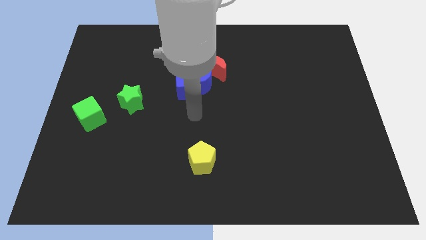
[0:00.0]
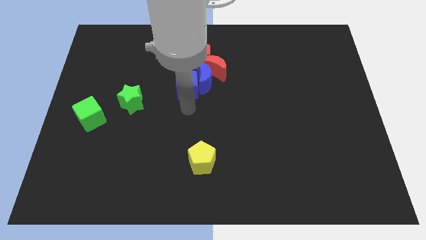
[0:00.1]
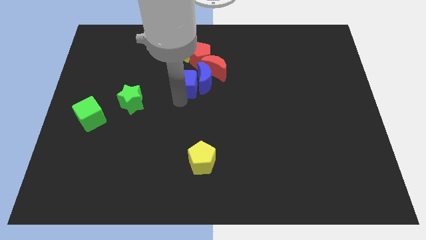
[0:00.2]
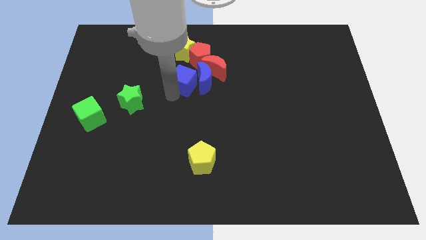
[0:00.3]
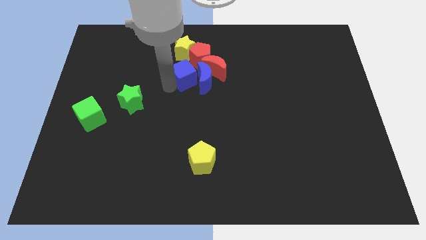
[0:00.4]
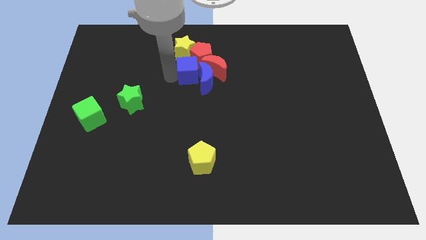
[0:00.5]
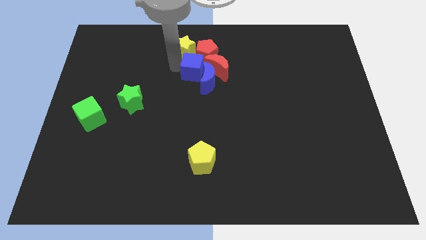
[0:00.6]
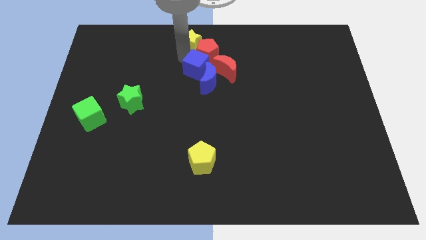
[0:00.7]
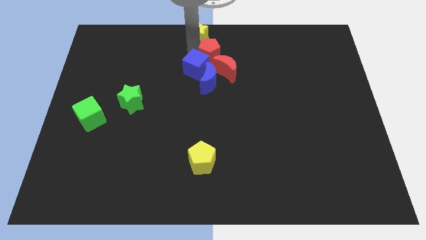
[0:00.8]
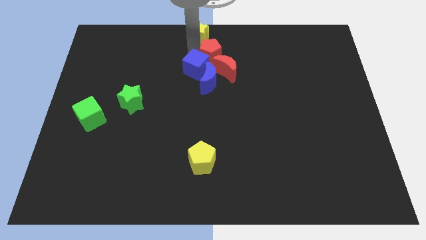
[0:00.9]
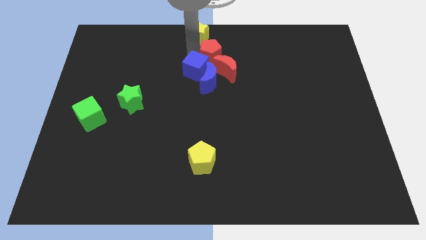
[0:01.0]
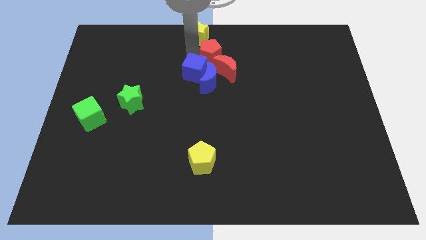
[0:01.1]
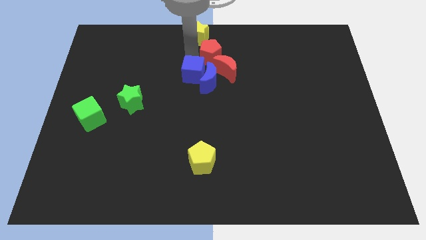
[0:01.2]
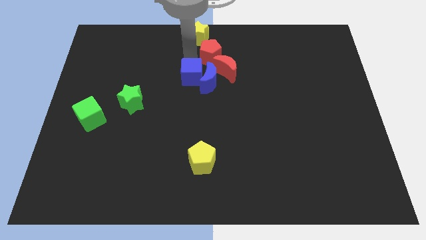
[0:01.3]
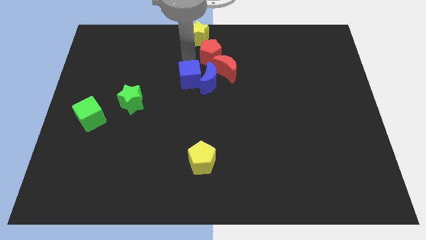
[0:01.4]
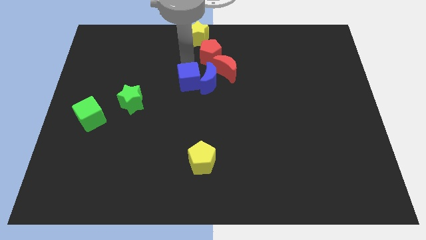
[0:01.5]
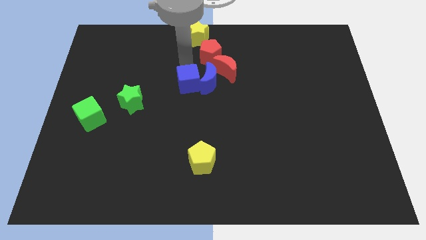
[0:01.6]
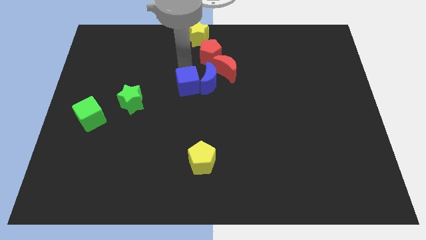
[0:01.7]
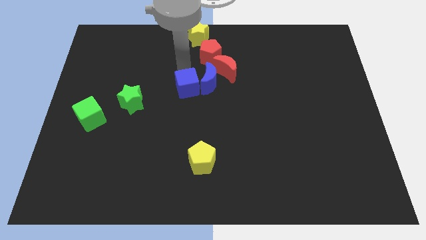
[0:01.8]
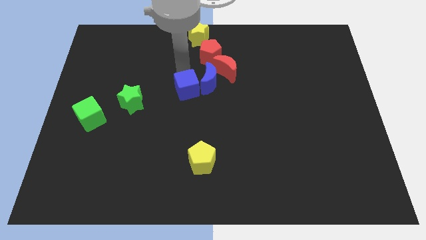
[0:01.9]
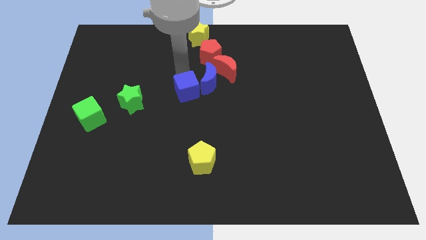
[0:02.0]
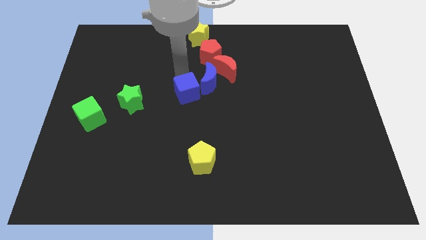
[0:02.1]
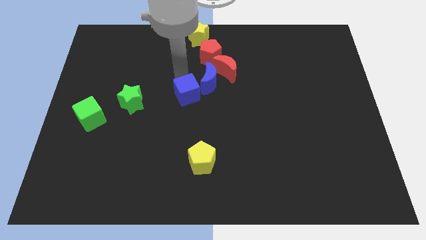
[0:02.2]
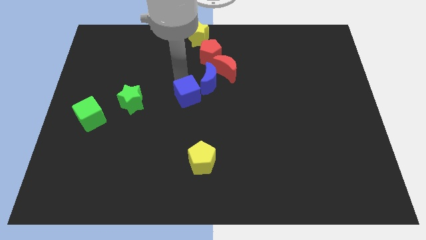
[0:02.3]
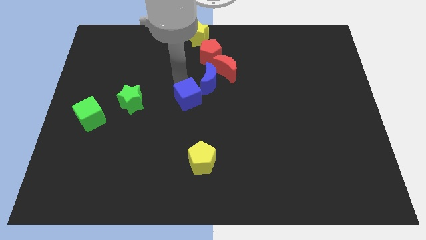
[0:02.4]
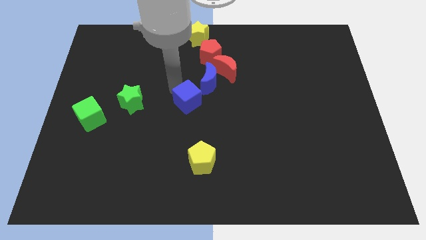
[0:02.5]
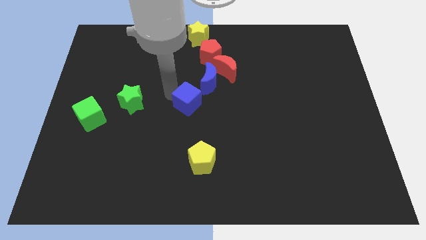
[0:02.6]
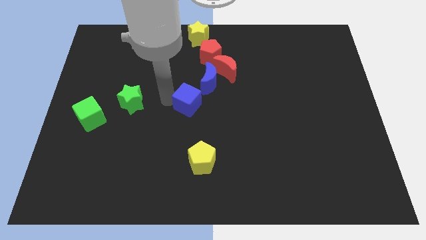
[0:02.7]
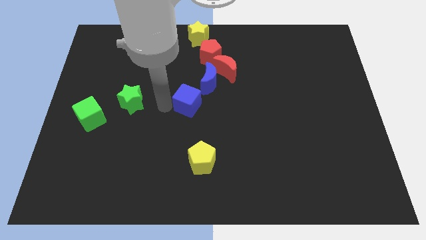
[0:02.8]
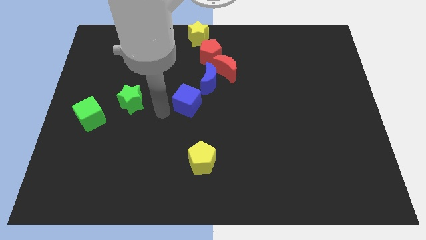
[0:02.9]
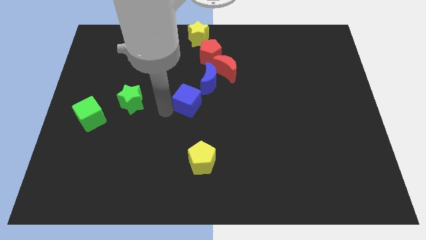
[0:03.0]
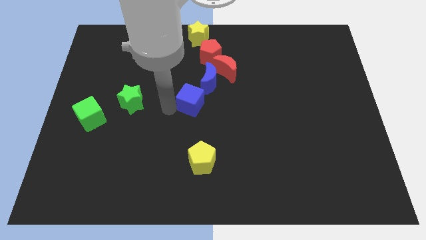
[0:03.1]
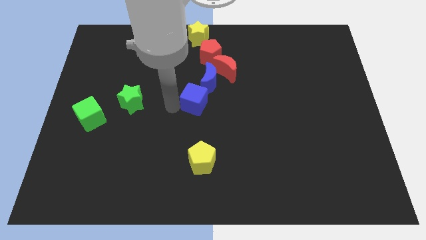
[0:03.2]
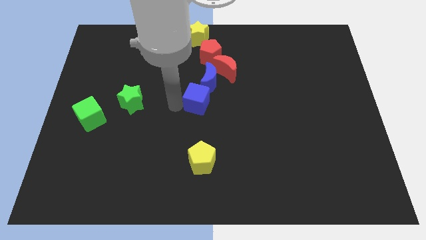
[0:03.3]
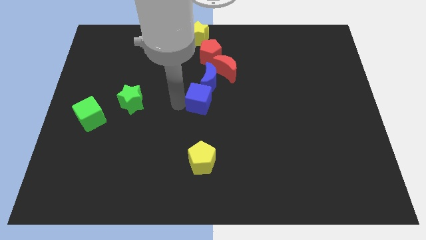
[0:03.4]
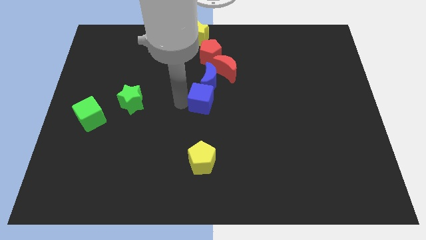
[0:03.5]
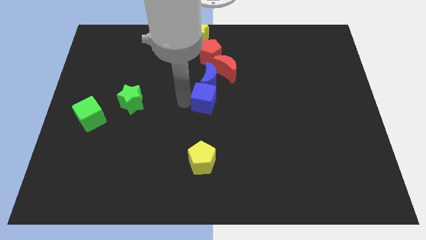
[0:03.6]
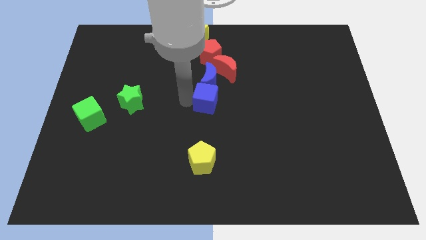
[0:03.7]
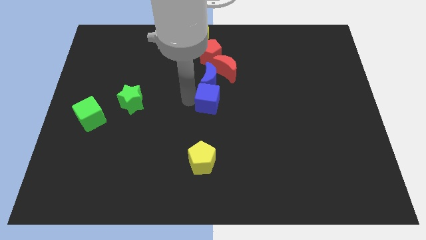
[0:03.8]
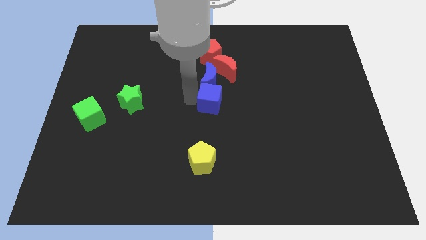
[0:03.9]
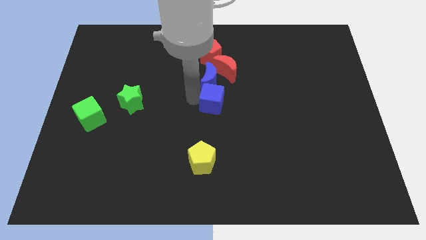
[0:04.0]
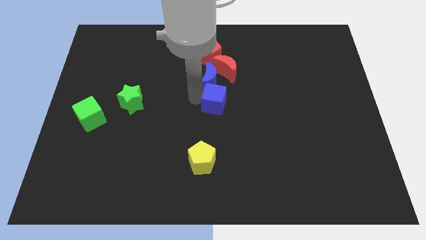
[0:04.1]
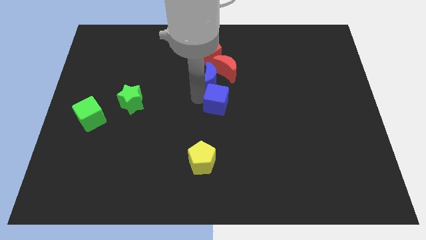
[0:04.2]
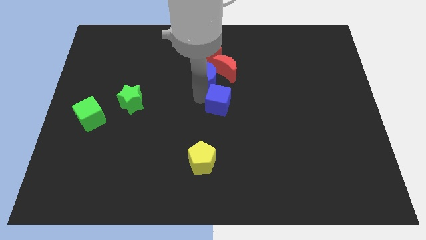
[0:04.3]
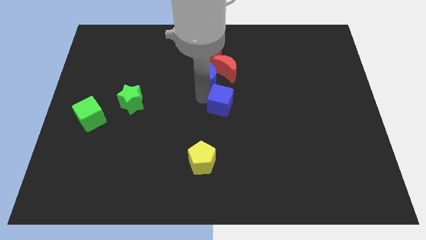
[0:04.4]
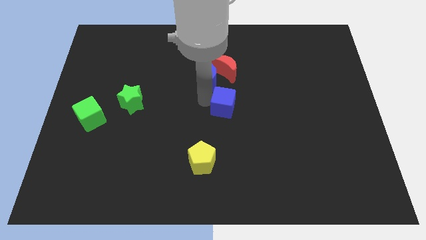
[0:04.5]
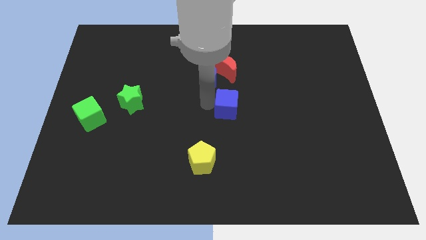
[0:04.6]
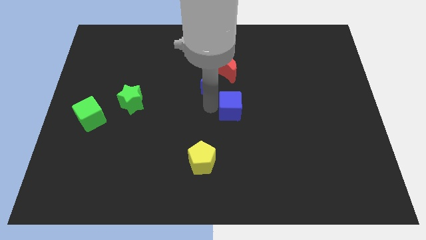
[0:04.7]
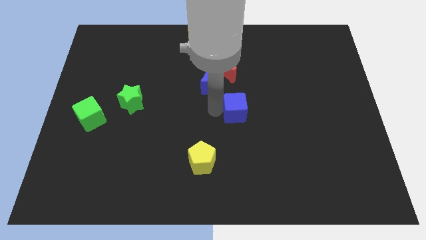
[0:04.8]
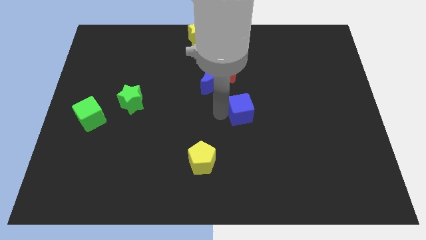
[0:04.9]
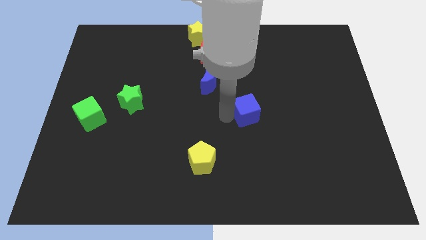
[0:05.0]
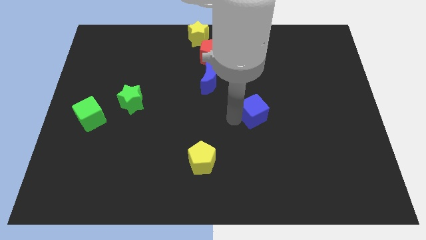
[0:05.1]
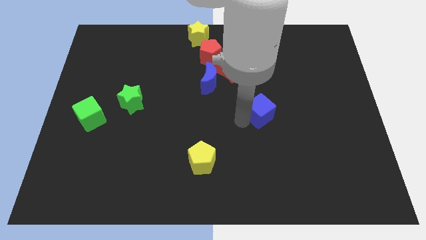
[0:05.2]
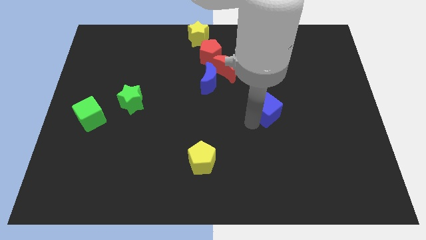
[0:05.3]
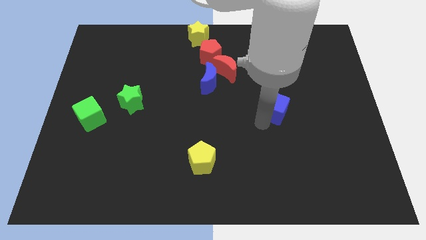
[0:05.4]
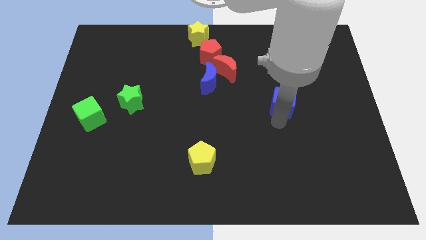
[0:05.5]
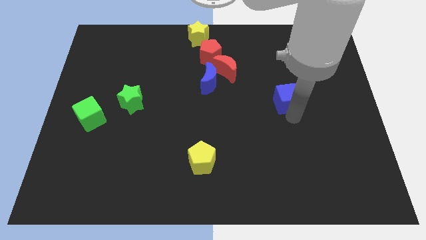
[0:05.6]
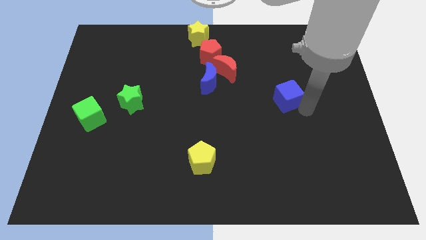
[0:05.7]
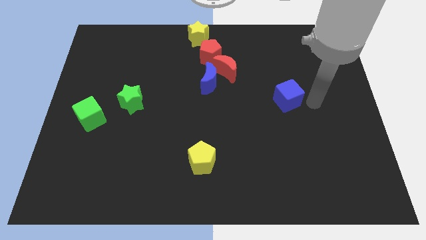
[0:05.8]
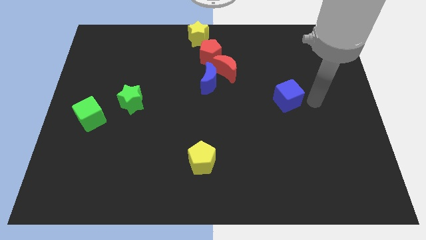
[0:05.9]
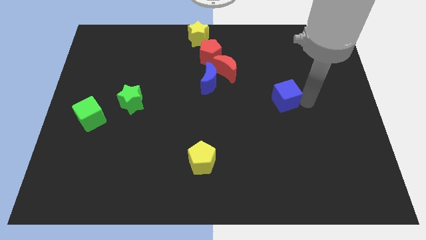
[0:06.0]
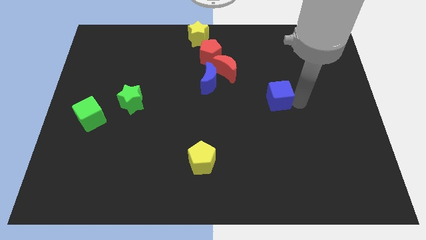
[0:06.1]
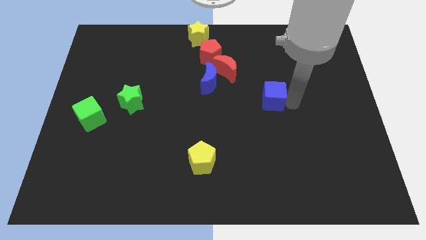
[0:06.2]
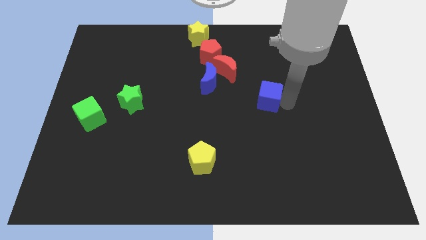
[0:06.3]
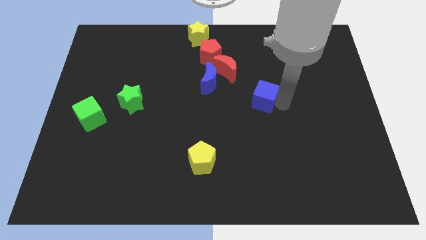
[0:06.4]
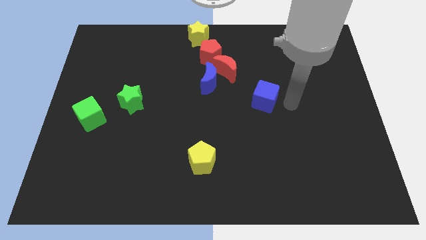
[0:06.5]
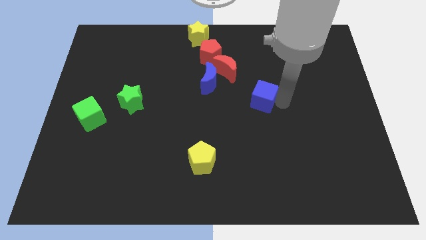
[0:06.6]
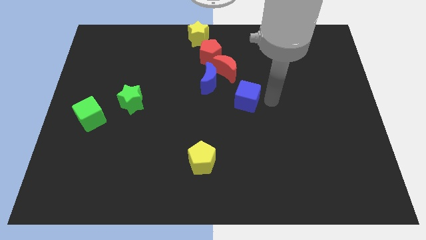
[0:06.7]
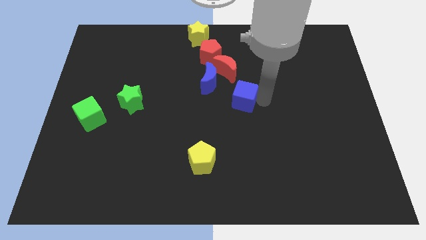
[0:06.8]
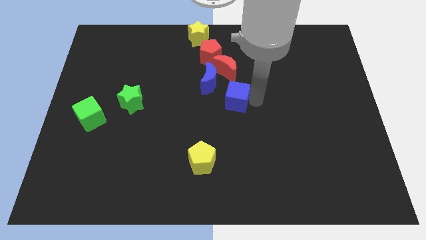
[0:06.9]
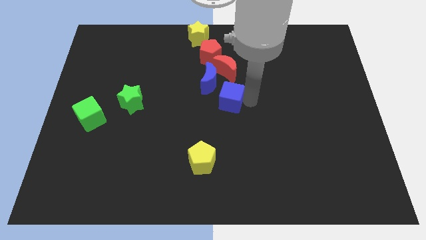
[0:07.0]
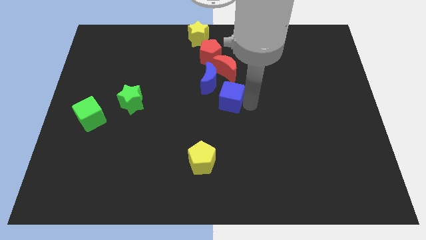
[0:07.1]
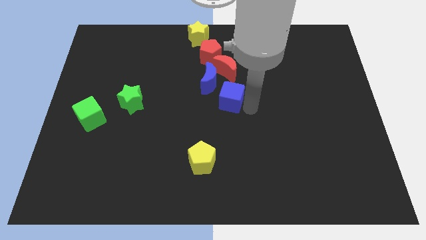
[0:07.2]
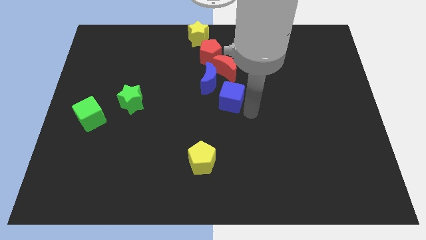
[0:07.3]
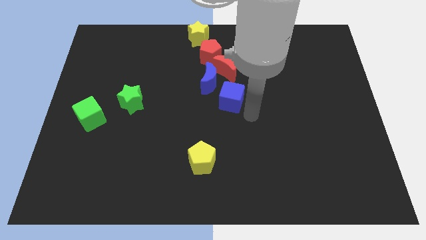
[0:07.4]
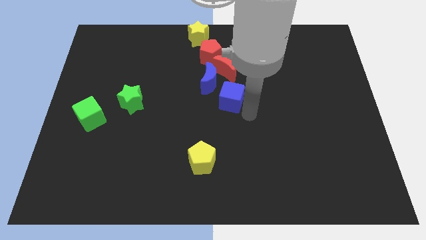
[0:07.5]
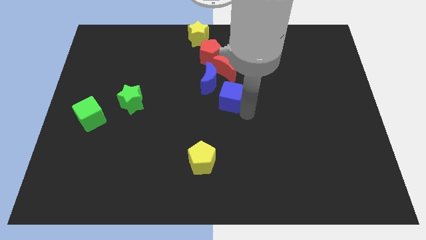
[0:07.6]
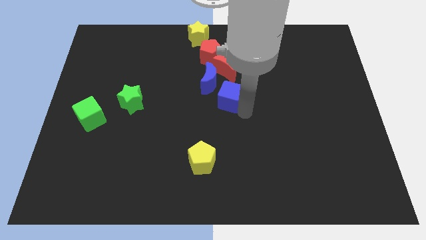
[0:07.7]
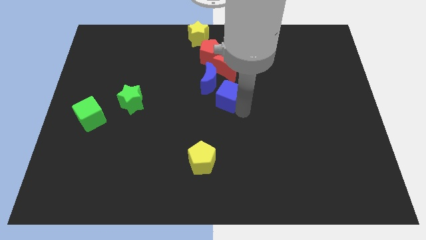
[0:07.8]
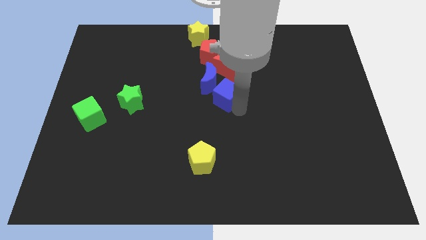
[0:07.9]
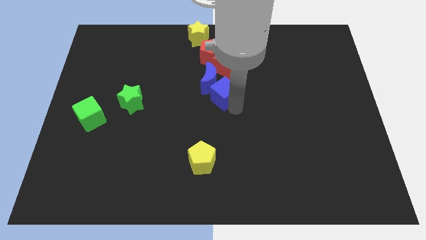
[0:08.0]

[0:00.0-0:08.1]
move the blue cube just right of the blue moon
